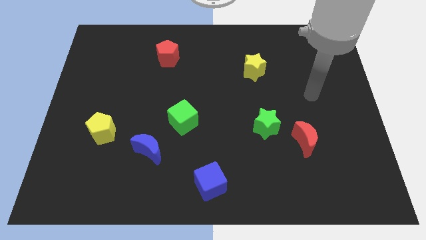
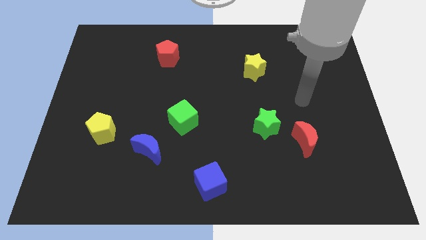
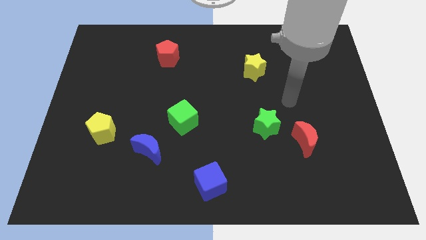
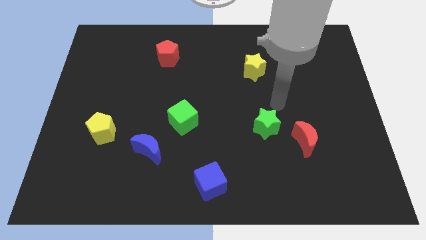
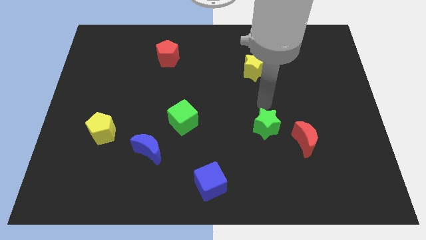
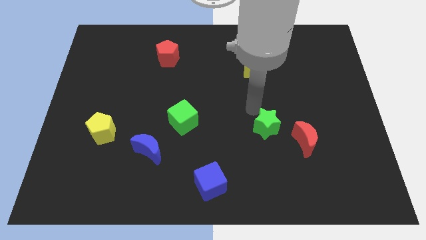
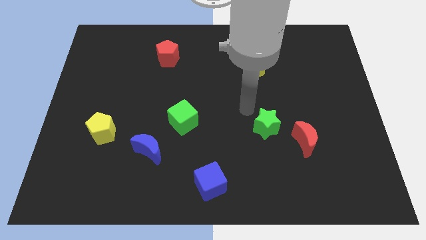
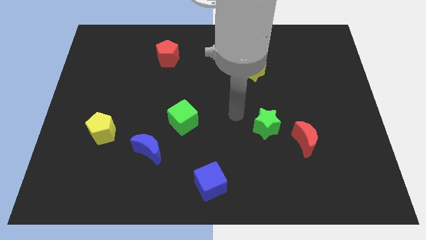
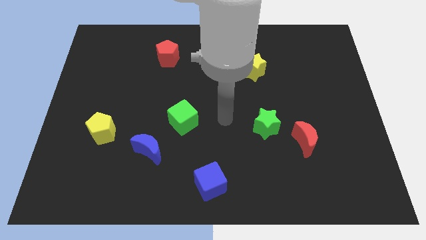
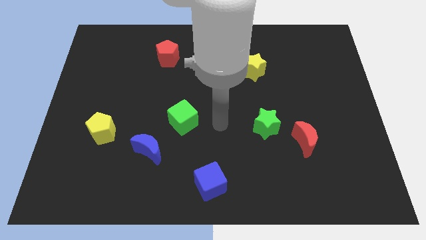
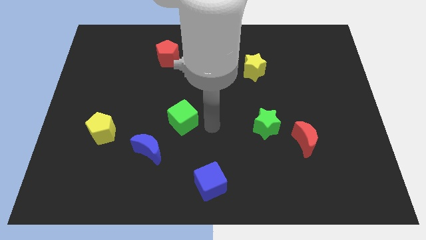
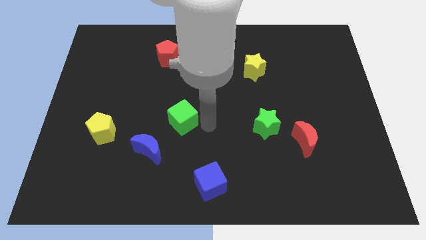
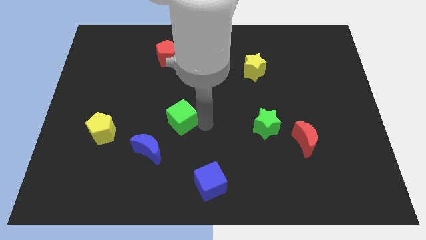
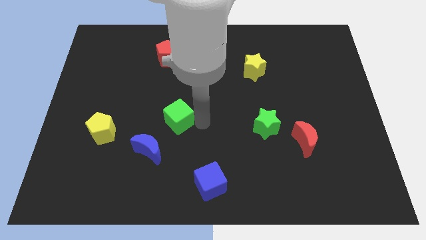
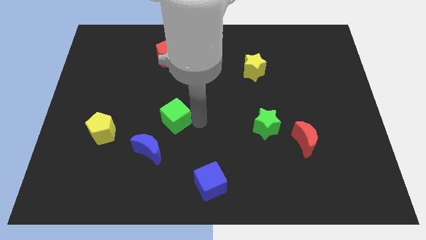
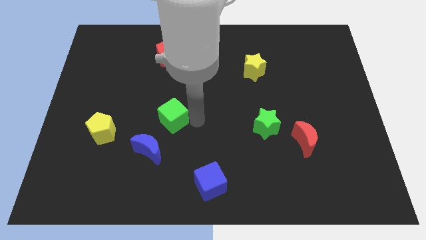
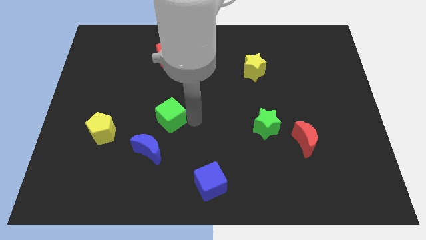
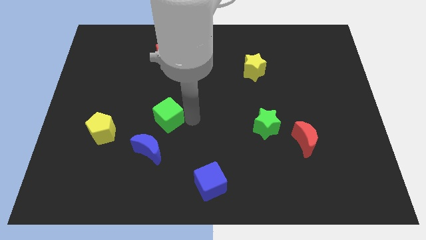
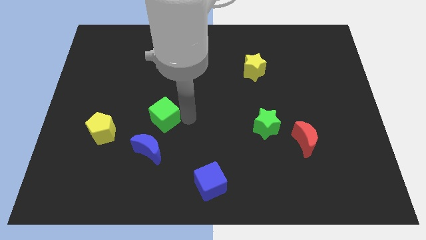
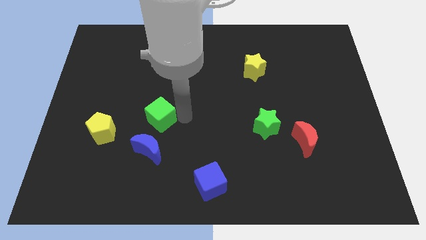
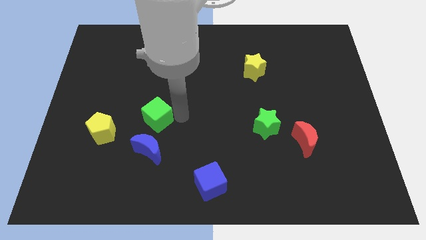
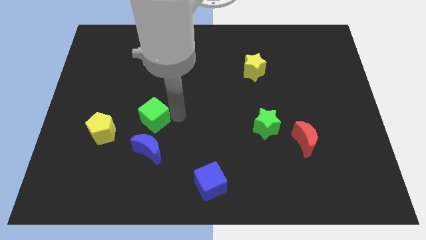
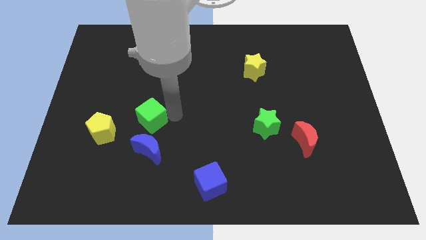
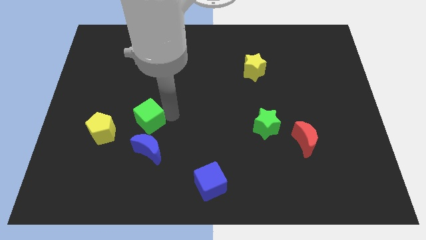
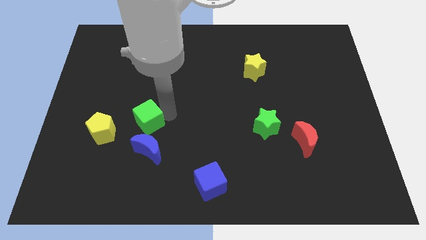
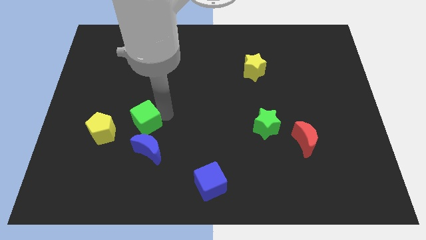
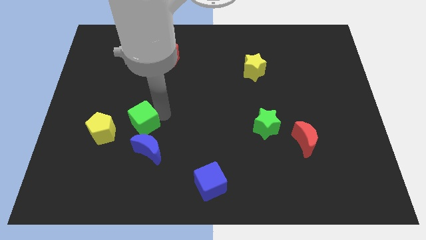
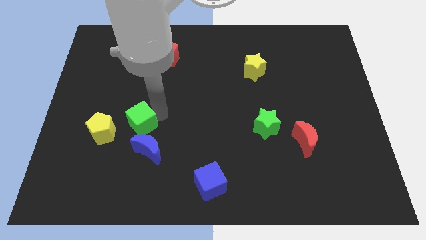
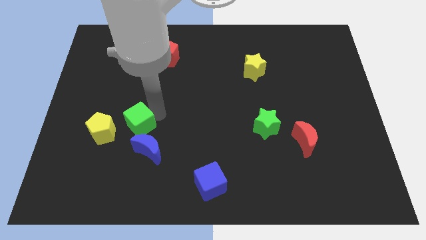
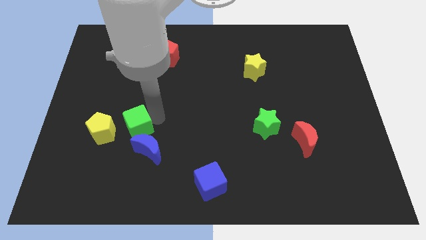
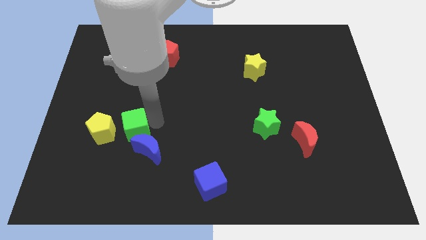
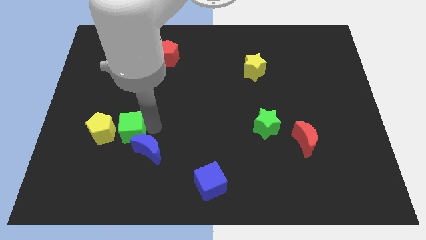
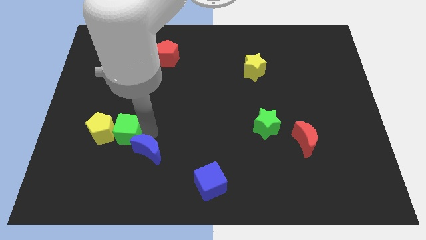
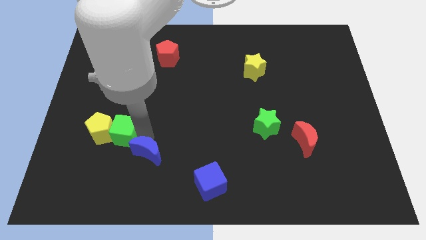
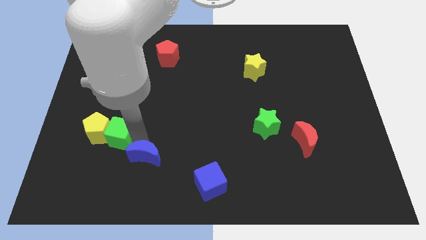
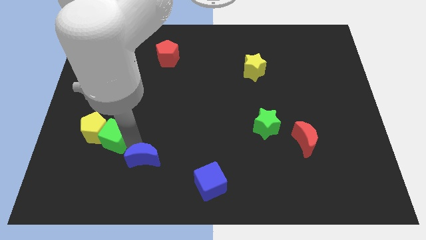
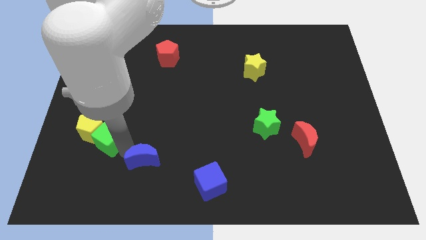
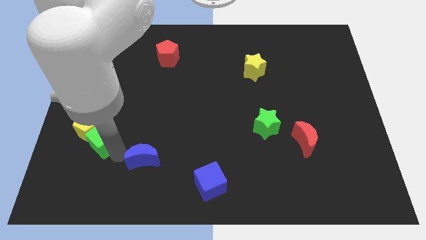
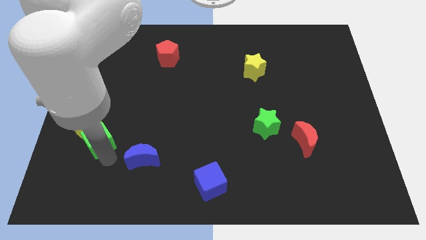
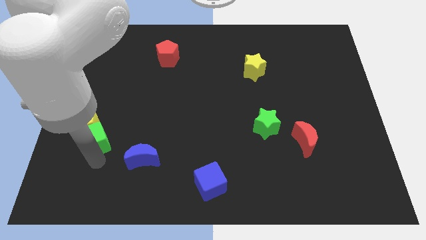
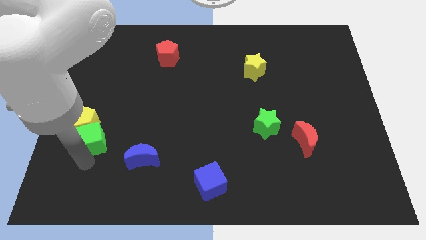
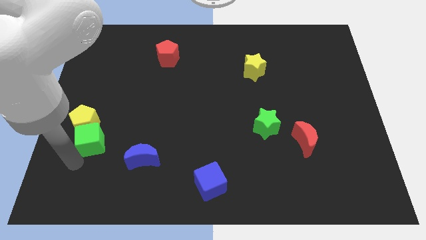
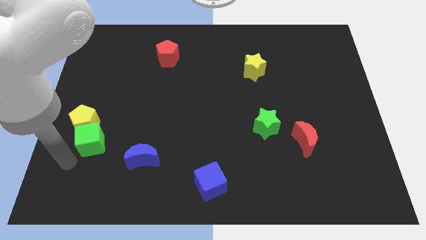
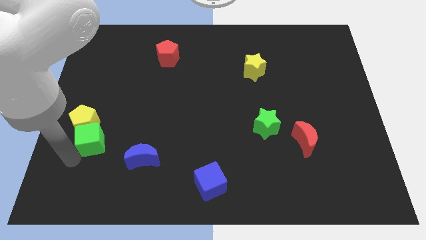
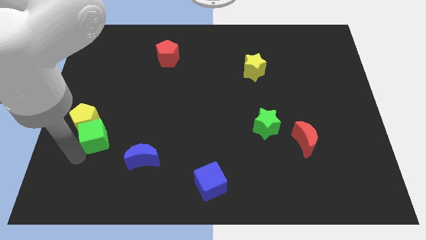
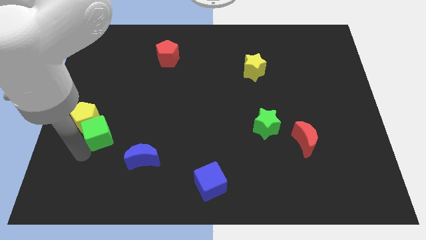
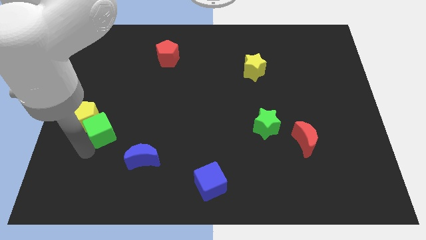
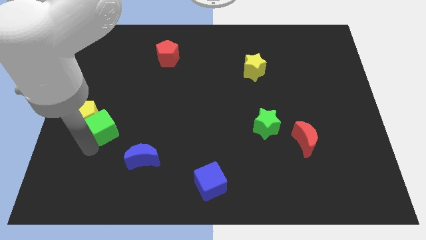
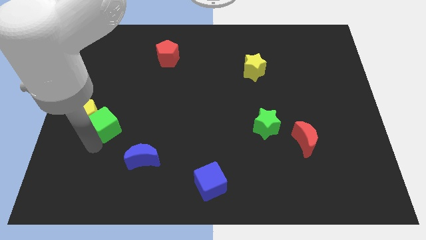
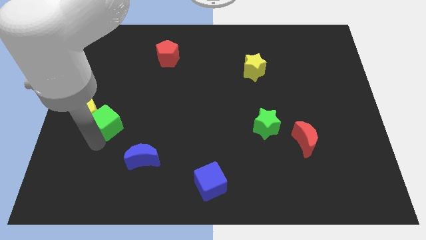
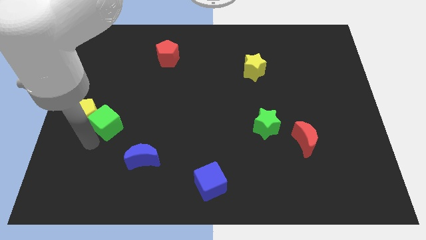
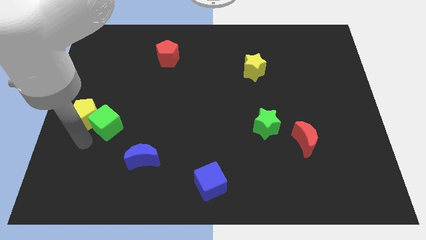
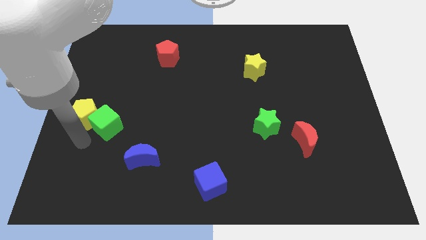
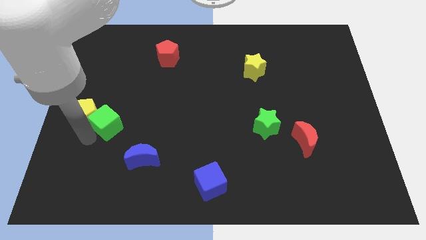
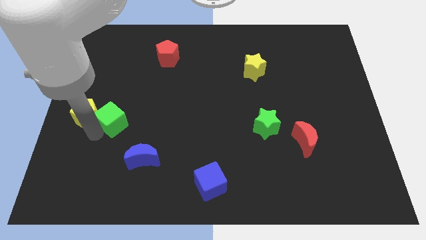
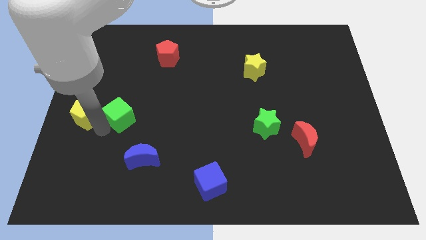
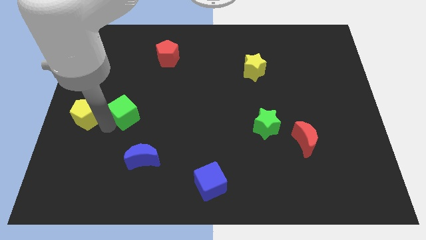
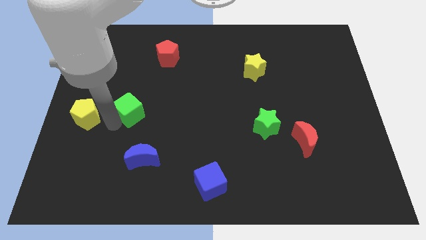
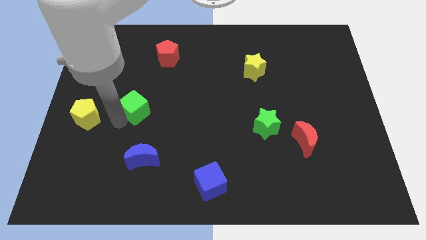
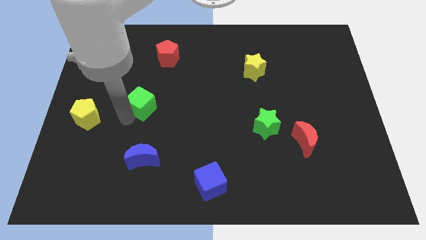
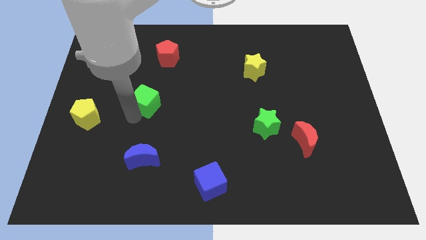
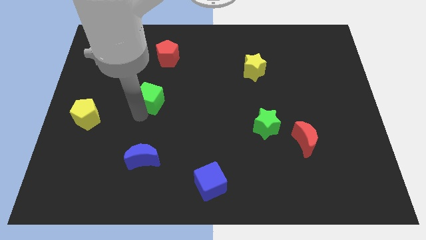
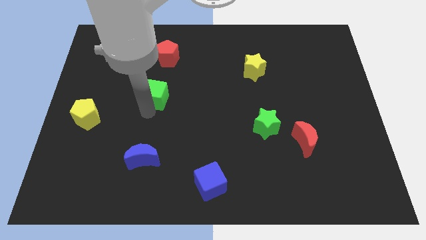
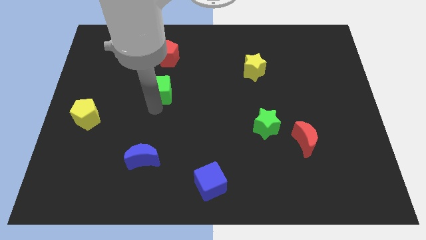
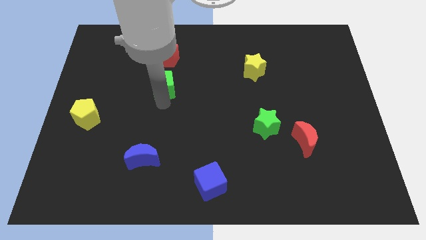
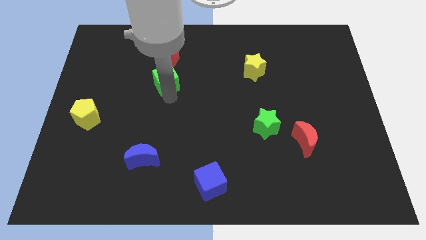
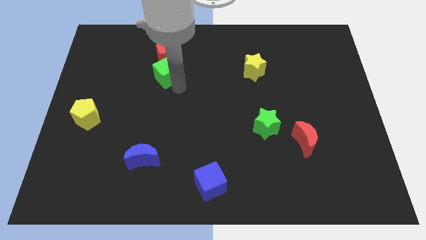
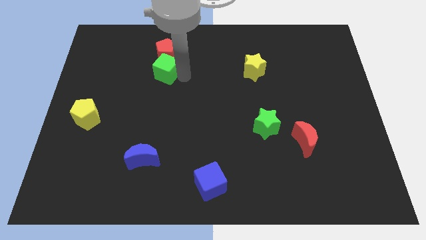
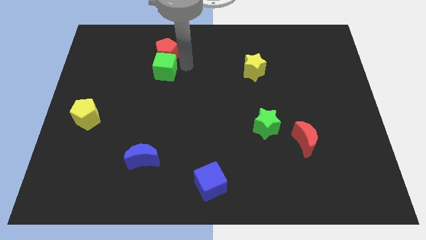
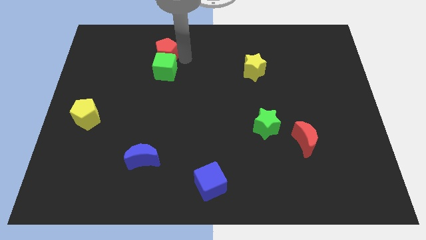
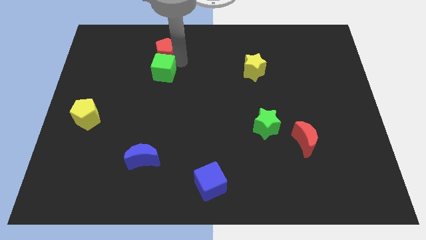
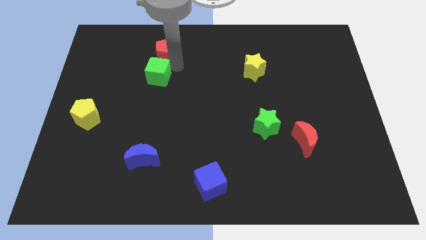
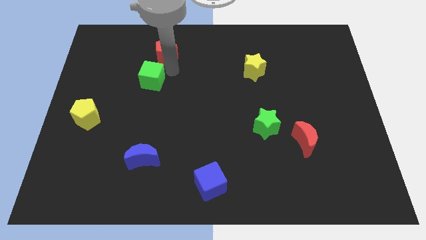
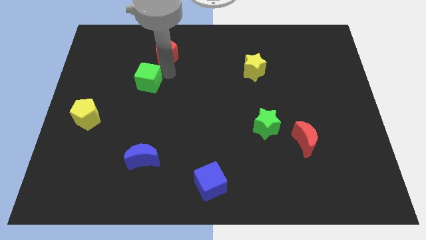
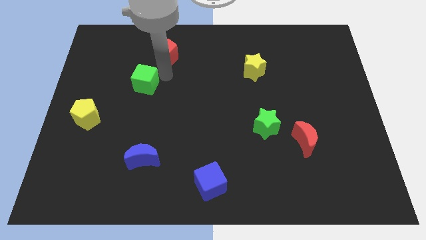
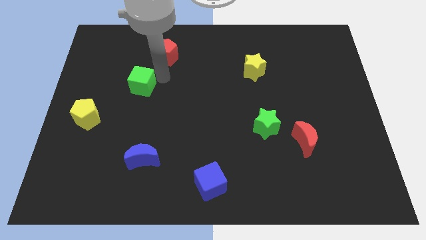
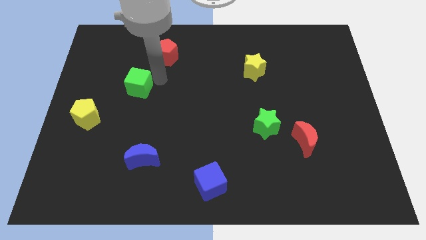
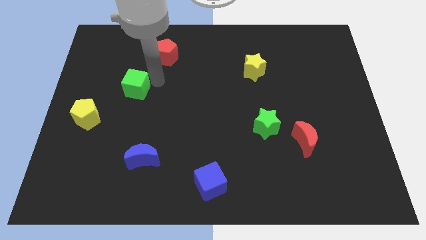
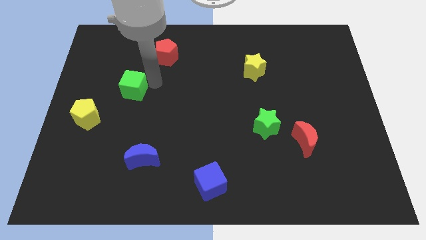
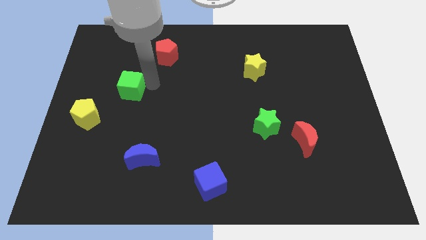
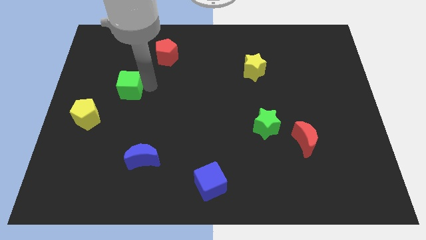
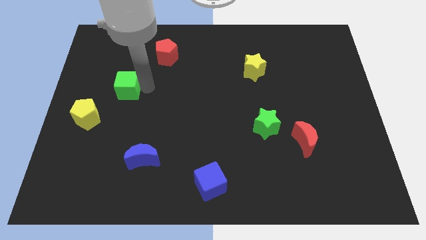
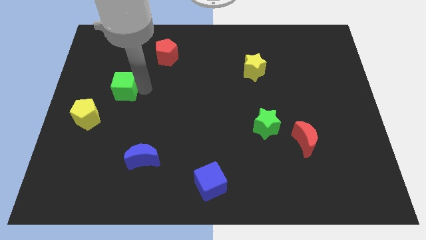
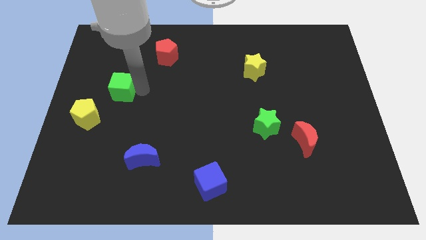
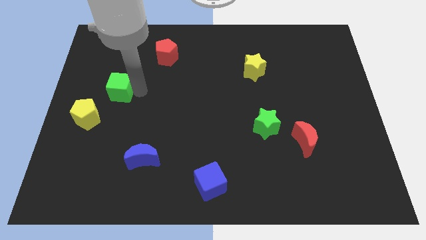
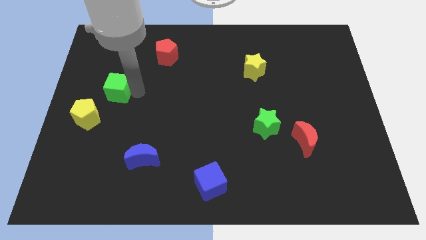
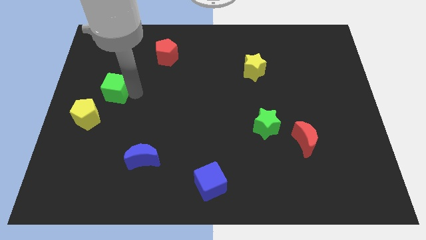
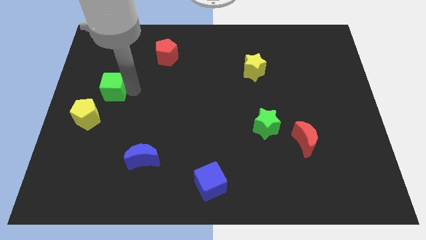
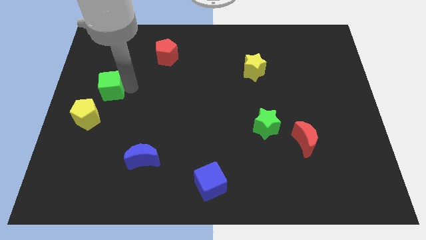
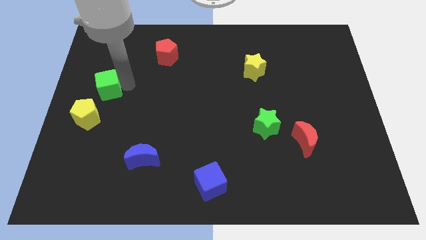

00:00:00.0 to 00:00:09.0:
slide the green cube to the left side
